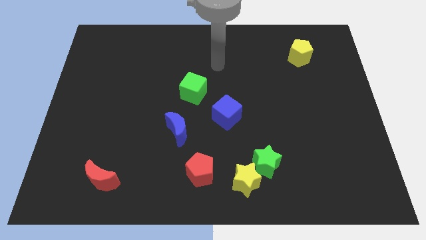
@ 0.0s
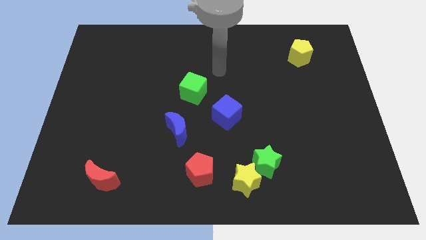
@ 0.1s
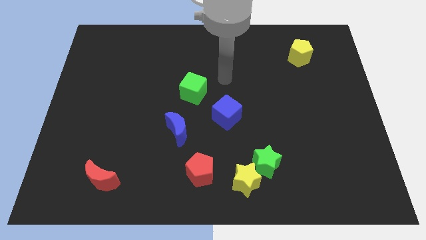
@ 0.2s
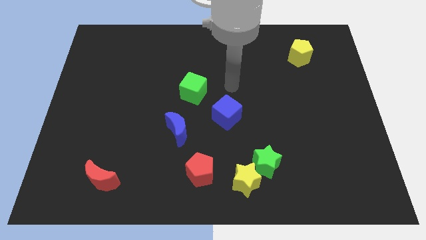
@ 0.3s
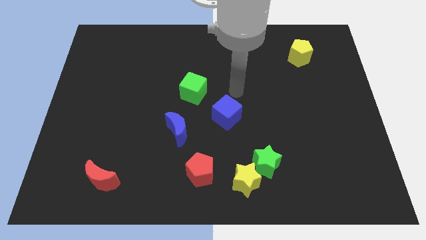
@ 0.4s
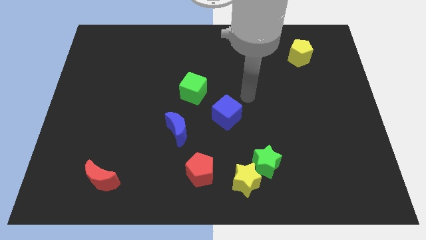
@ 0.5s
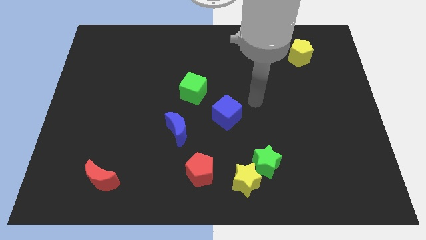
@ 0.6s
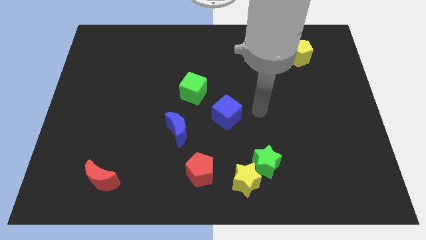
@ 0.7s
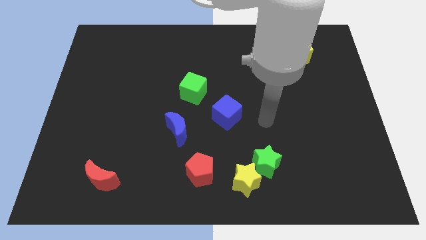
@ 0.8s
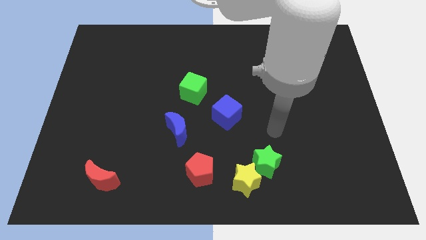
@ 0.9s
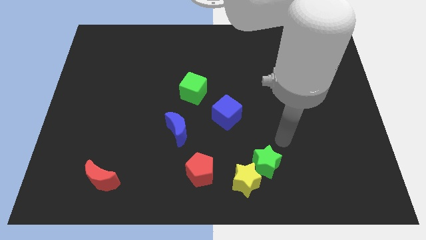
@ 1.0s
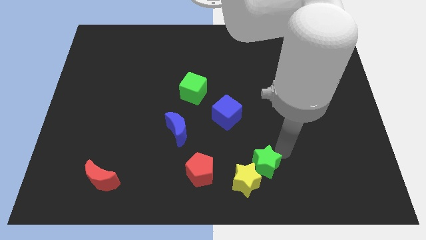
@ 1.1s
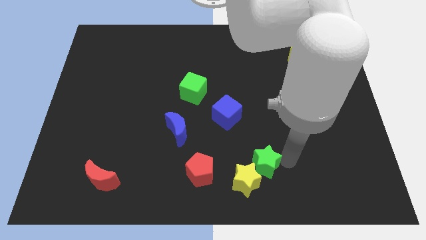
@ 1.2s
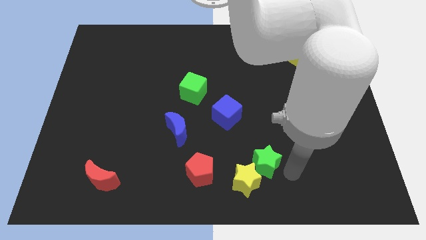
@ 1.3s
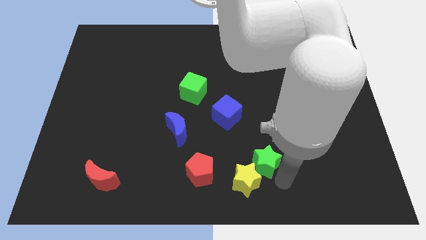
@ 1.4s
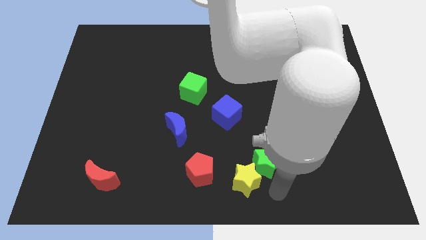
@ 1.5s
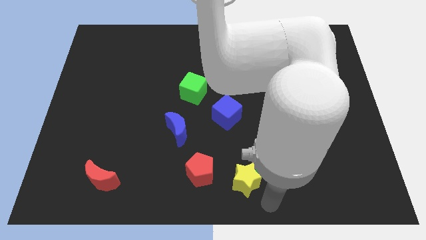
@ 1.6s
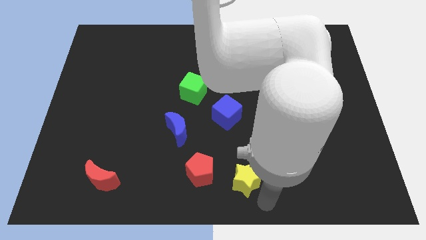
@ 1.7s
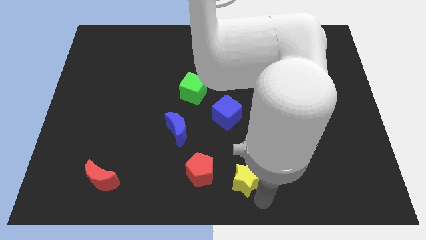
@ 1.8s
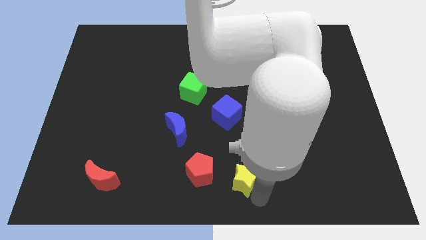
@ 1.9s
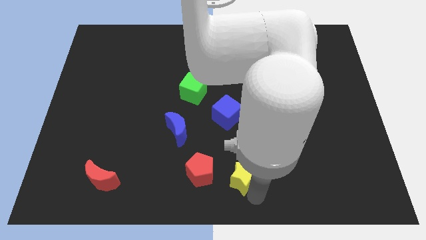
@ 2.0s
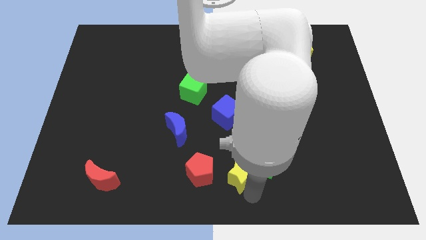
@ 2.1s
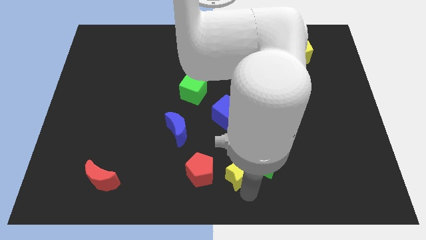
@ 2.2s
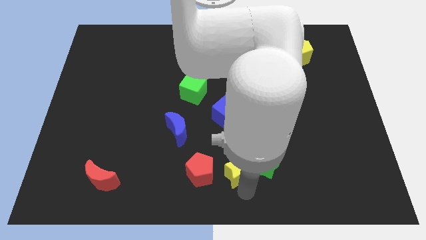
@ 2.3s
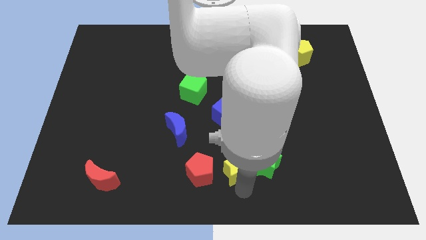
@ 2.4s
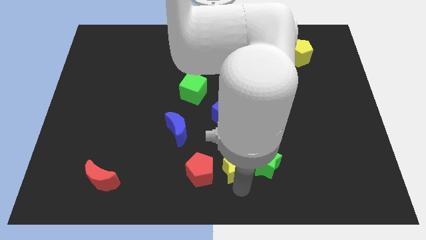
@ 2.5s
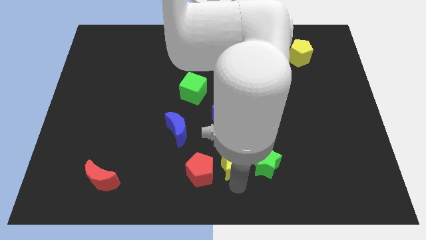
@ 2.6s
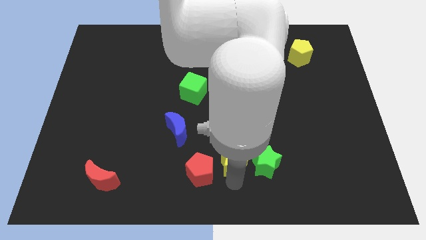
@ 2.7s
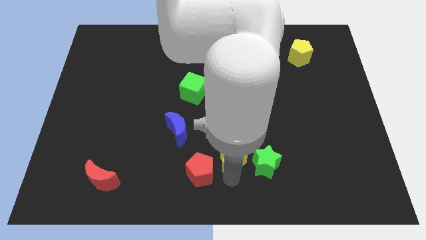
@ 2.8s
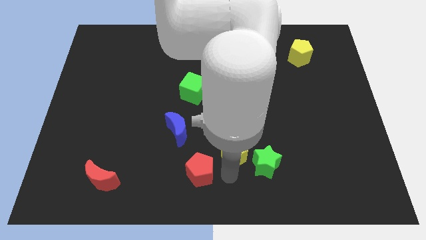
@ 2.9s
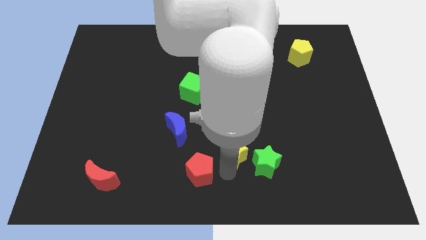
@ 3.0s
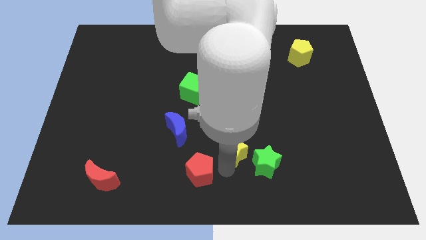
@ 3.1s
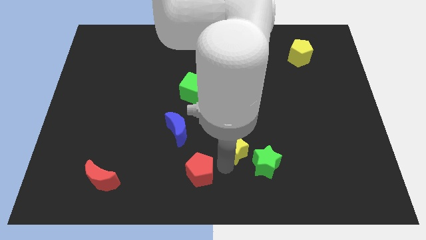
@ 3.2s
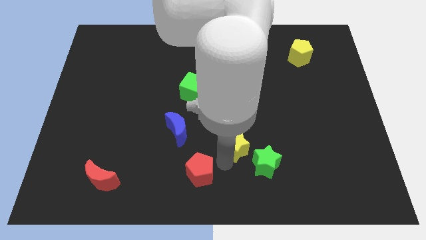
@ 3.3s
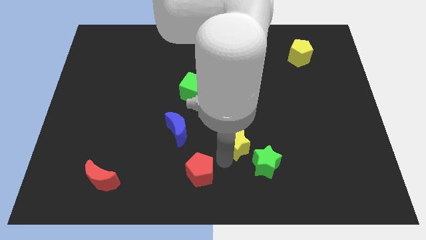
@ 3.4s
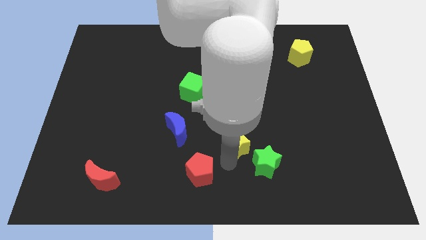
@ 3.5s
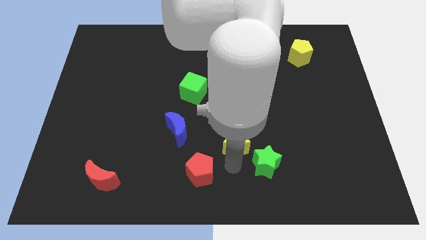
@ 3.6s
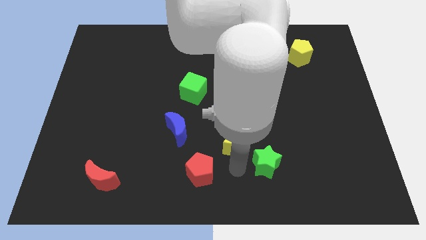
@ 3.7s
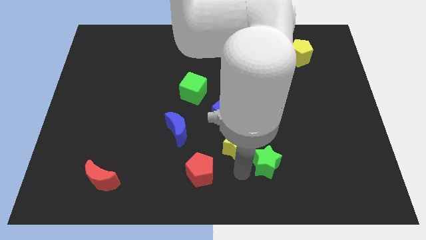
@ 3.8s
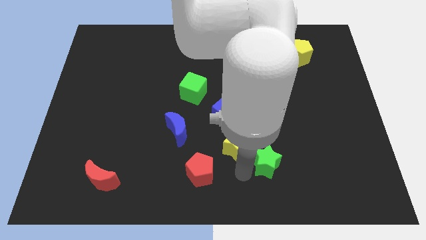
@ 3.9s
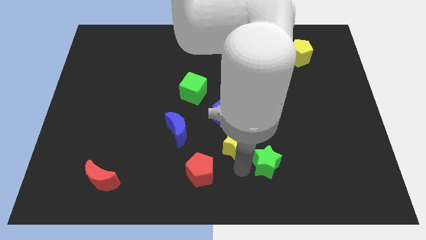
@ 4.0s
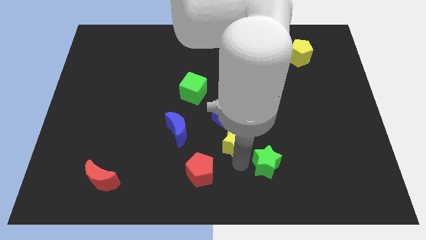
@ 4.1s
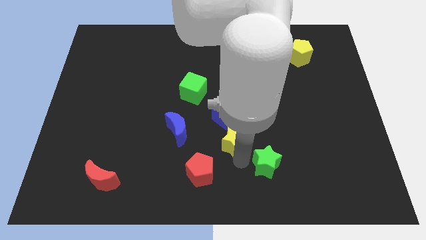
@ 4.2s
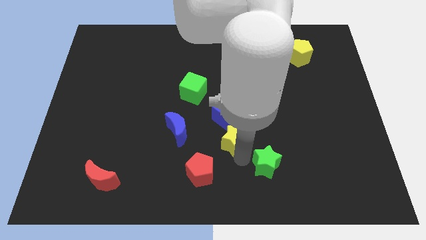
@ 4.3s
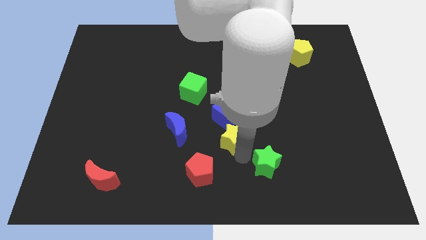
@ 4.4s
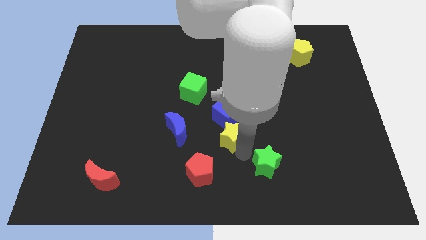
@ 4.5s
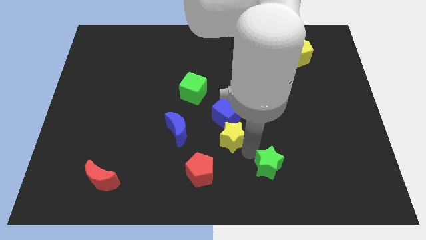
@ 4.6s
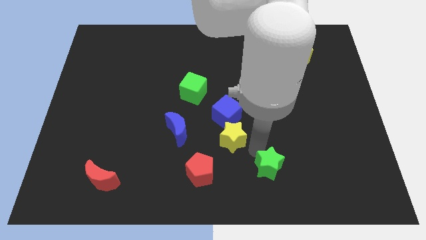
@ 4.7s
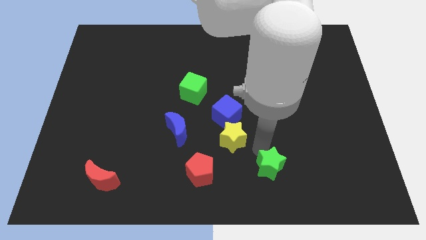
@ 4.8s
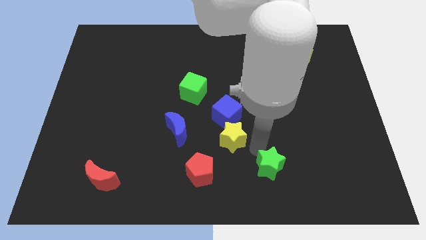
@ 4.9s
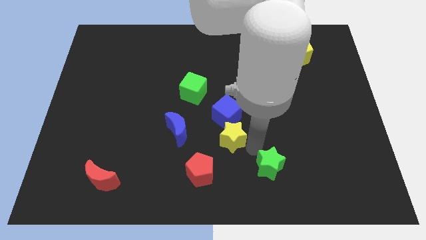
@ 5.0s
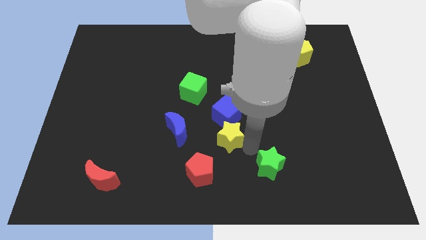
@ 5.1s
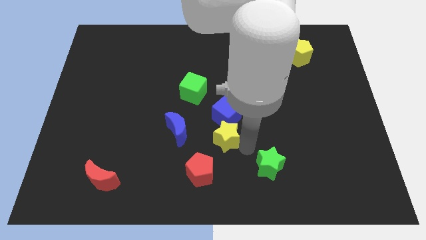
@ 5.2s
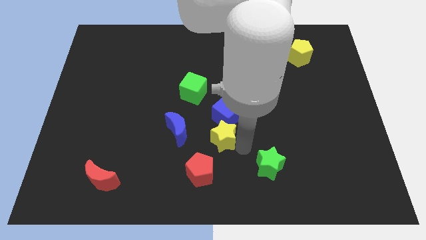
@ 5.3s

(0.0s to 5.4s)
slide the yellow star above the red pentagon

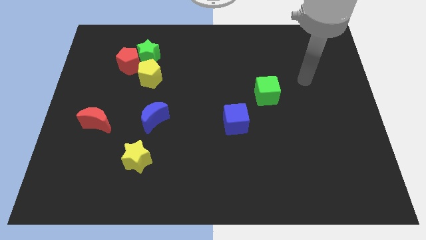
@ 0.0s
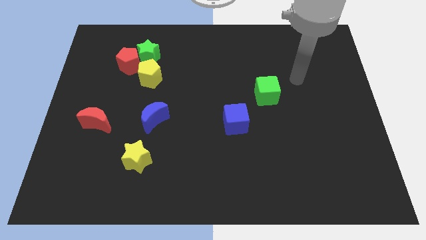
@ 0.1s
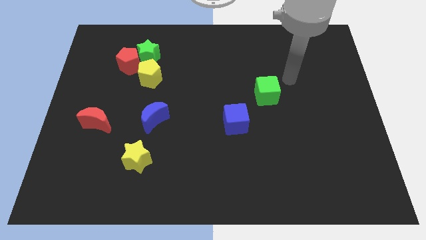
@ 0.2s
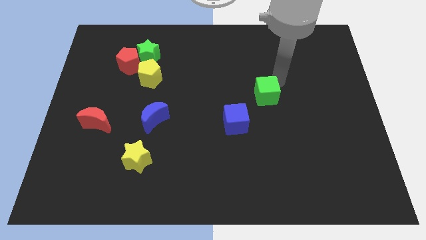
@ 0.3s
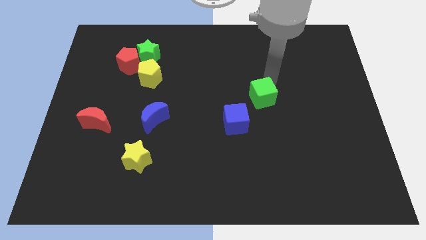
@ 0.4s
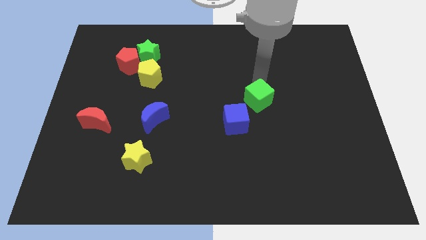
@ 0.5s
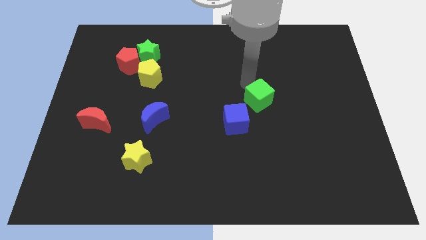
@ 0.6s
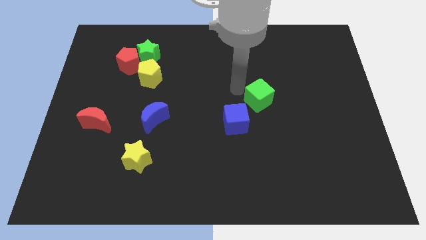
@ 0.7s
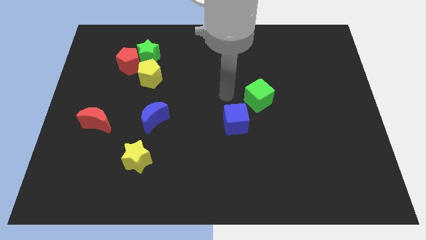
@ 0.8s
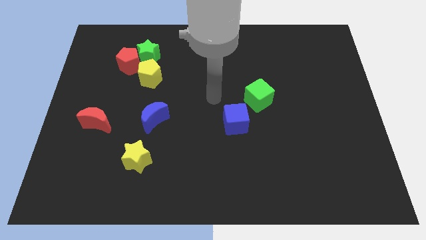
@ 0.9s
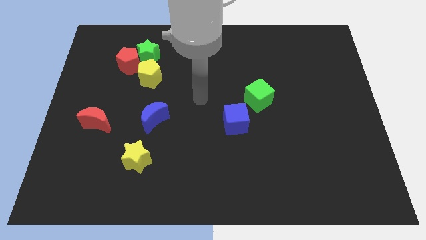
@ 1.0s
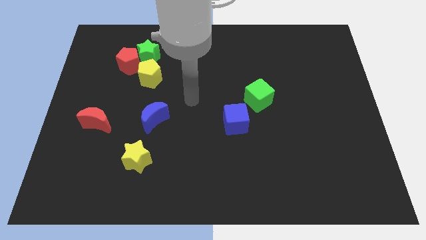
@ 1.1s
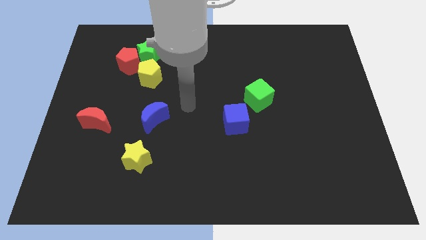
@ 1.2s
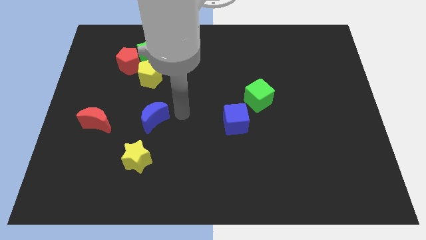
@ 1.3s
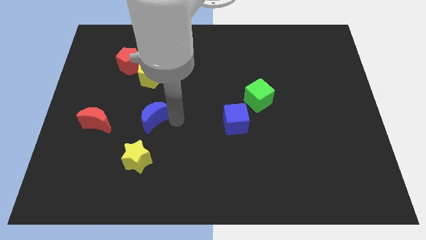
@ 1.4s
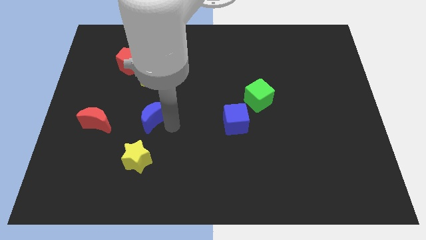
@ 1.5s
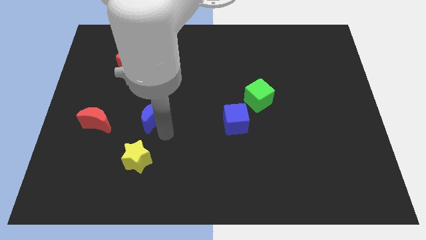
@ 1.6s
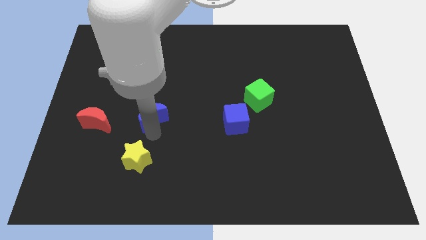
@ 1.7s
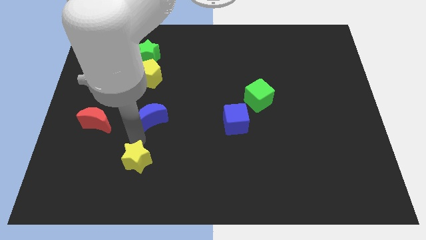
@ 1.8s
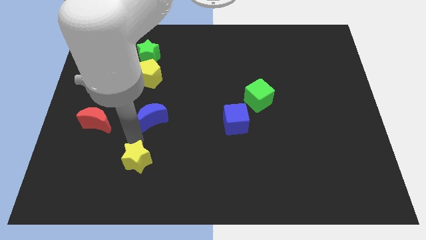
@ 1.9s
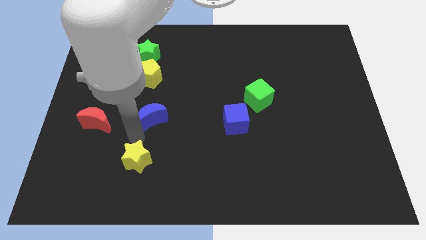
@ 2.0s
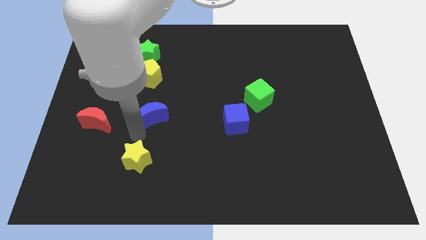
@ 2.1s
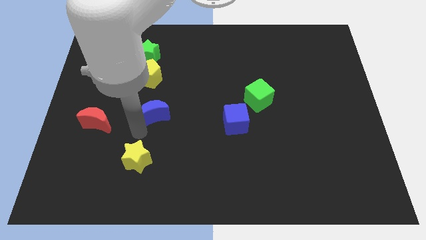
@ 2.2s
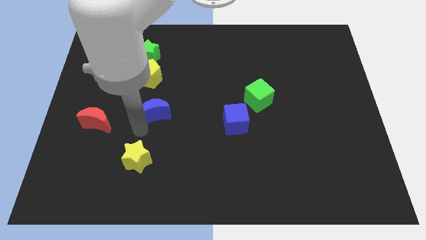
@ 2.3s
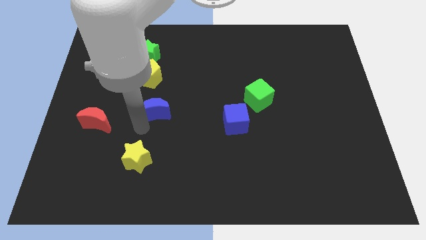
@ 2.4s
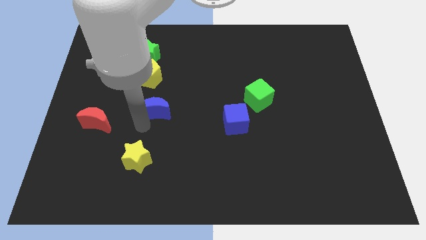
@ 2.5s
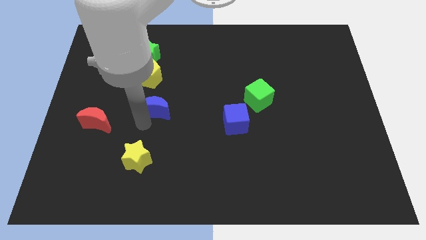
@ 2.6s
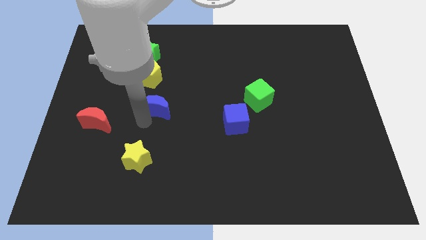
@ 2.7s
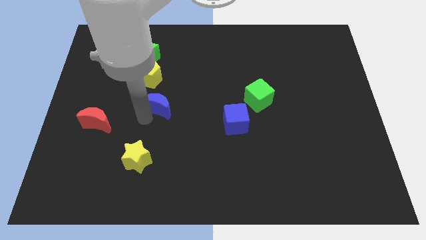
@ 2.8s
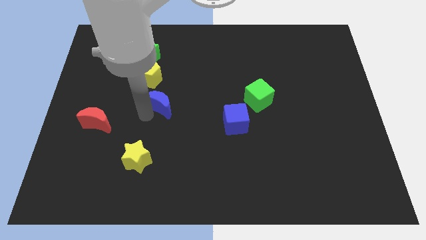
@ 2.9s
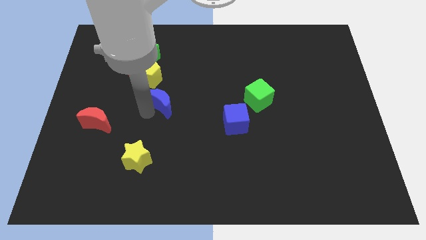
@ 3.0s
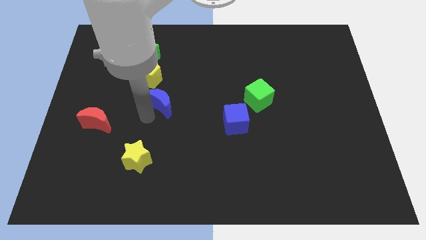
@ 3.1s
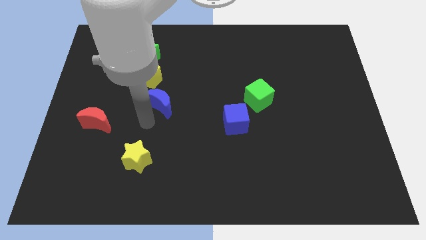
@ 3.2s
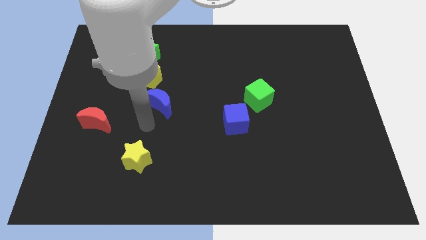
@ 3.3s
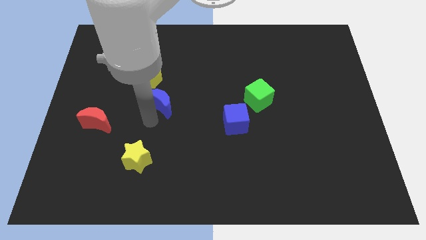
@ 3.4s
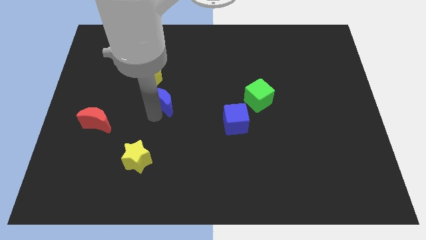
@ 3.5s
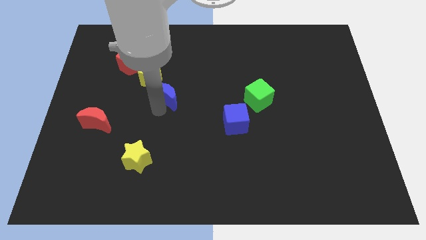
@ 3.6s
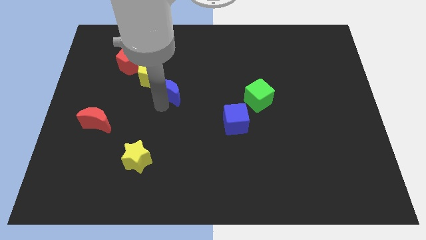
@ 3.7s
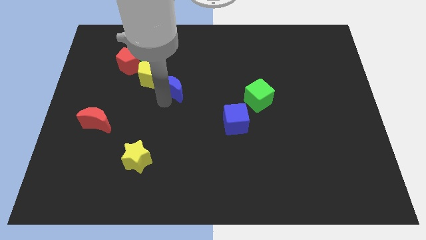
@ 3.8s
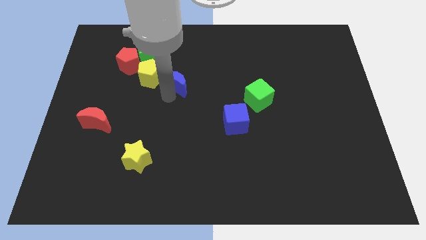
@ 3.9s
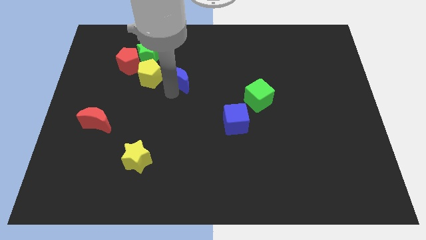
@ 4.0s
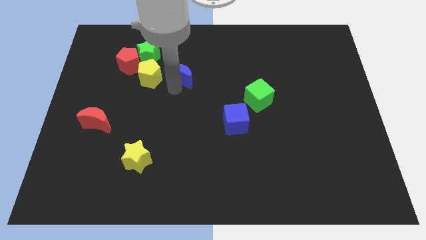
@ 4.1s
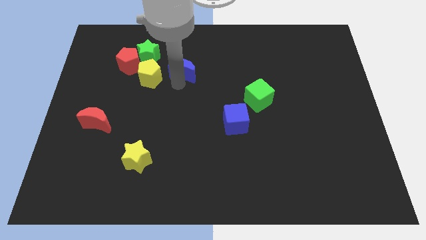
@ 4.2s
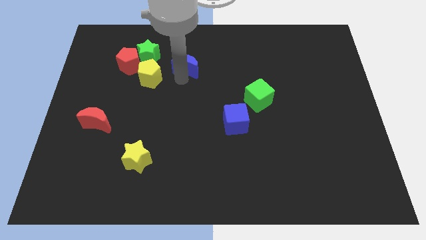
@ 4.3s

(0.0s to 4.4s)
push the blue moon just right of the green star
